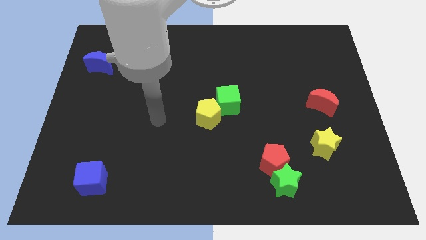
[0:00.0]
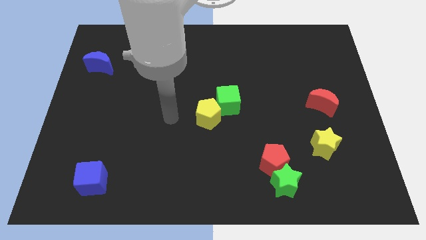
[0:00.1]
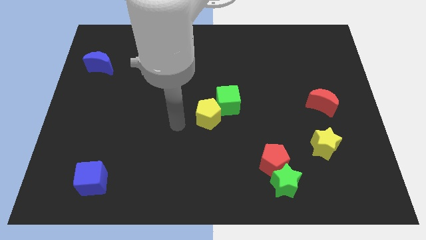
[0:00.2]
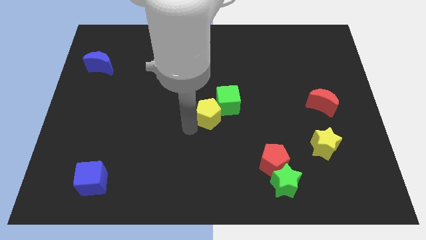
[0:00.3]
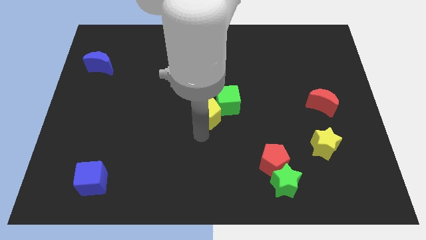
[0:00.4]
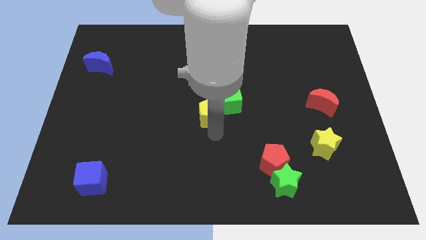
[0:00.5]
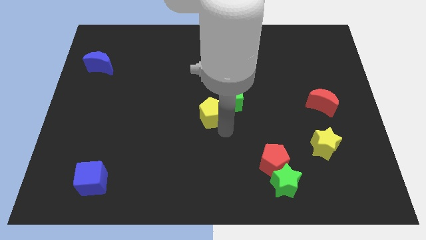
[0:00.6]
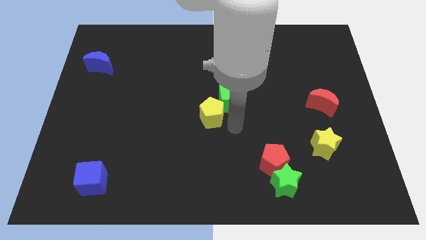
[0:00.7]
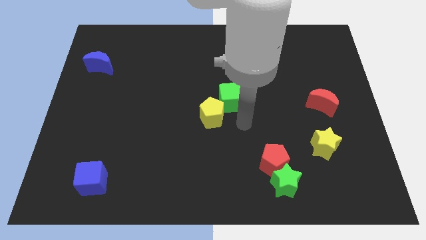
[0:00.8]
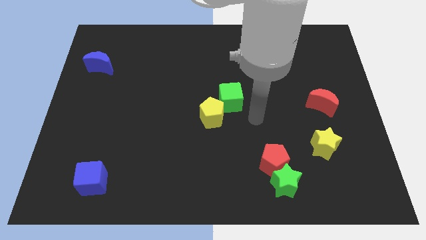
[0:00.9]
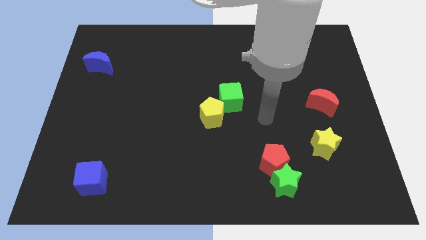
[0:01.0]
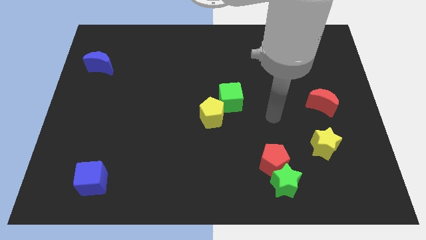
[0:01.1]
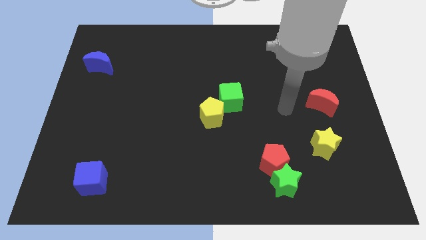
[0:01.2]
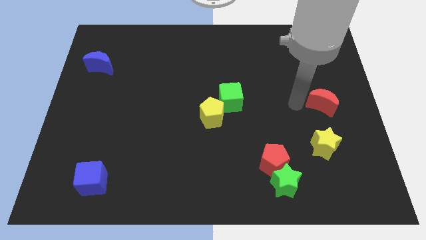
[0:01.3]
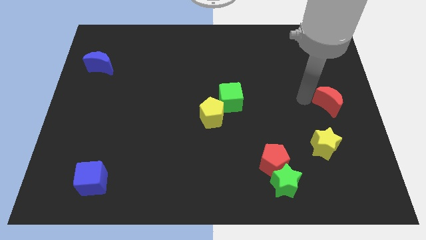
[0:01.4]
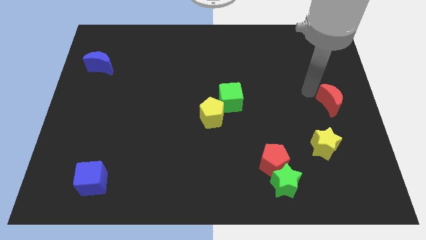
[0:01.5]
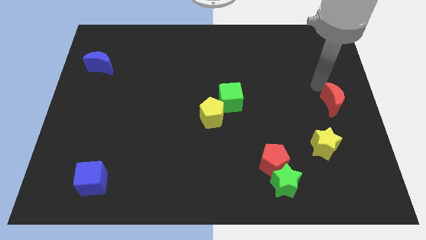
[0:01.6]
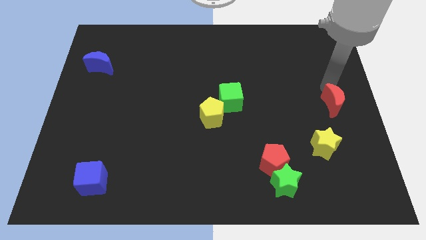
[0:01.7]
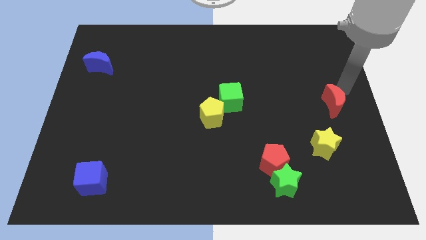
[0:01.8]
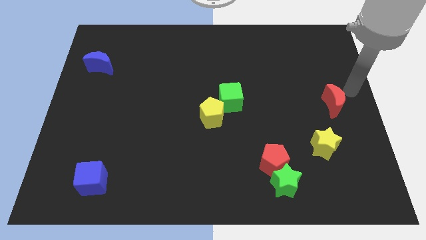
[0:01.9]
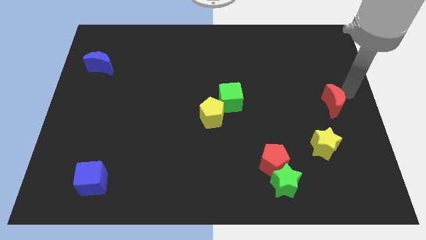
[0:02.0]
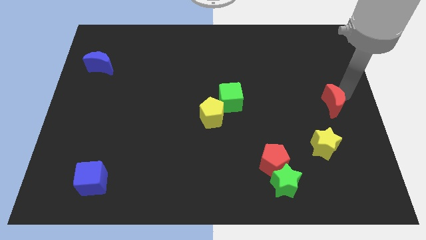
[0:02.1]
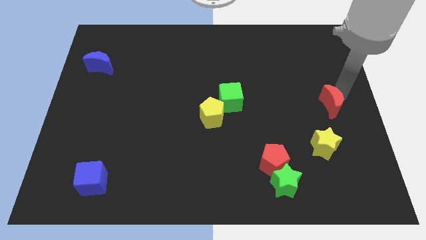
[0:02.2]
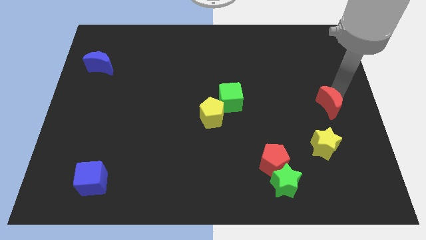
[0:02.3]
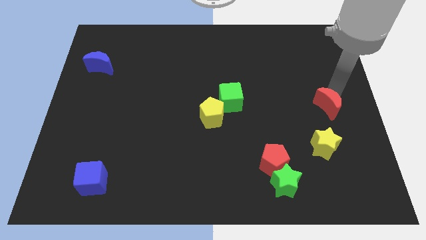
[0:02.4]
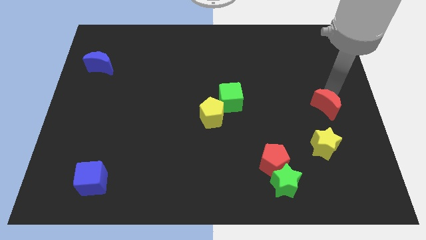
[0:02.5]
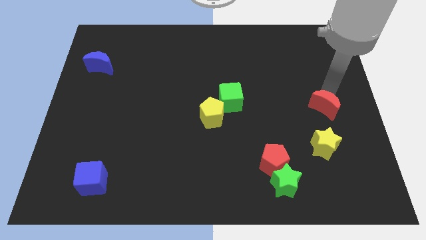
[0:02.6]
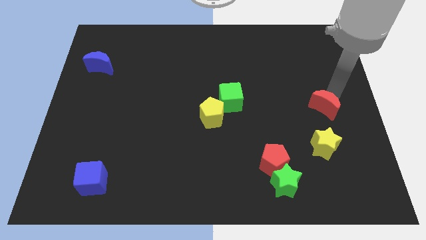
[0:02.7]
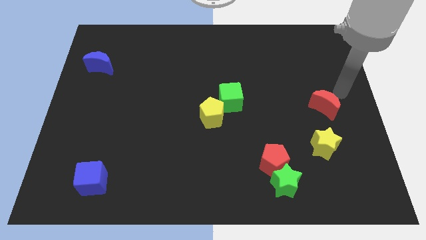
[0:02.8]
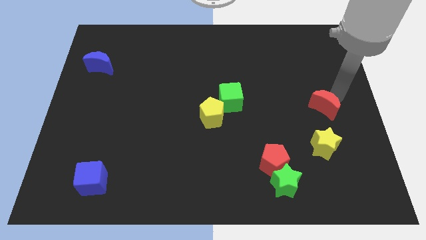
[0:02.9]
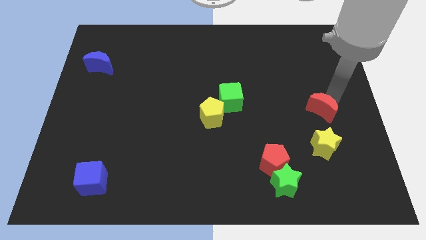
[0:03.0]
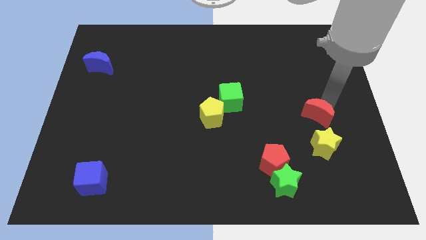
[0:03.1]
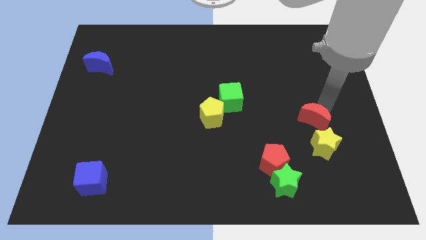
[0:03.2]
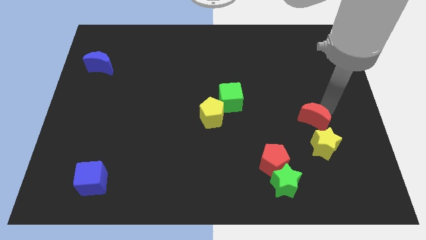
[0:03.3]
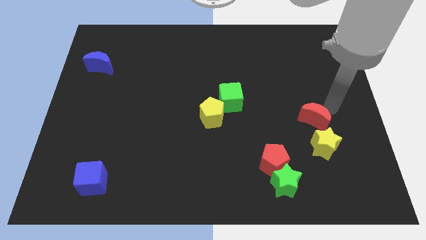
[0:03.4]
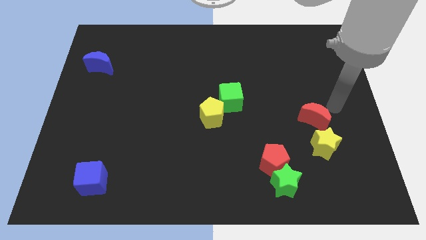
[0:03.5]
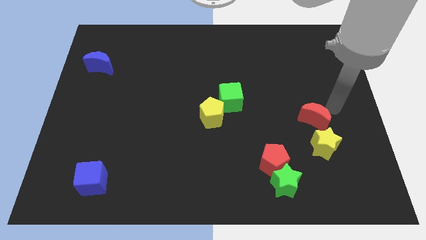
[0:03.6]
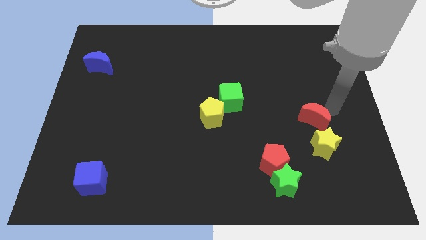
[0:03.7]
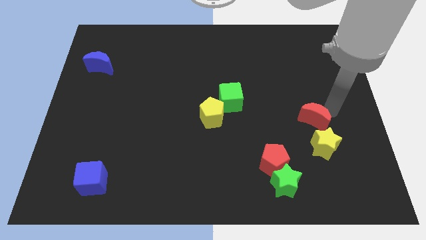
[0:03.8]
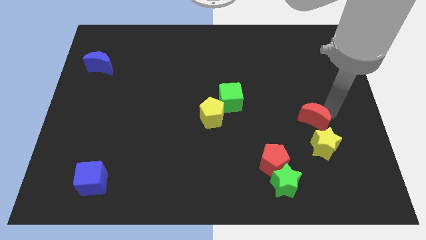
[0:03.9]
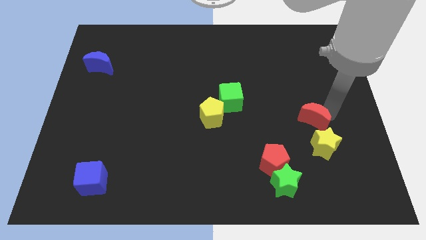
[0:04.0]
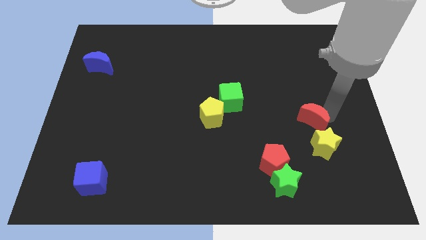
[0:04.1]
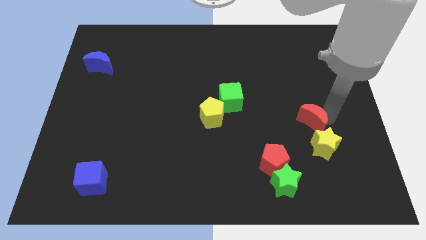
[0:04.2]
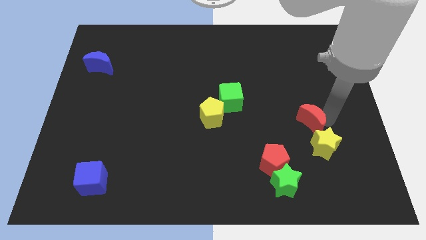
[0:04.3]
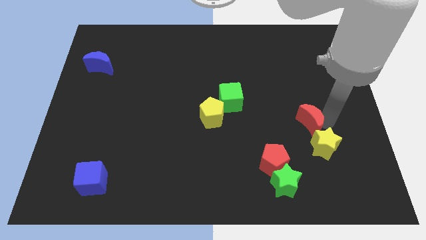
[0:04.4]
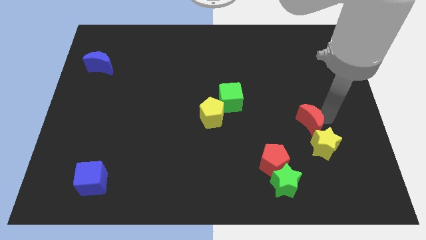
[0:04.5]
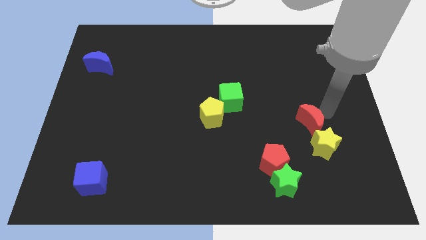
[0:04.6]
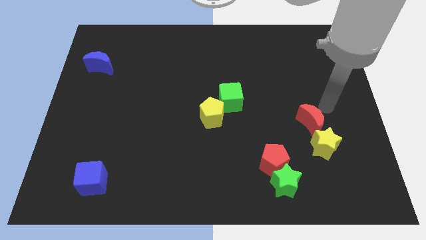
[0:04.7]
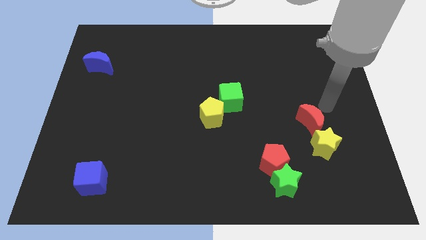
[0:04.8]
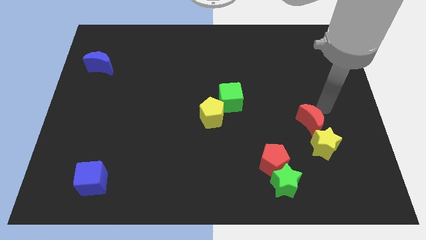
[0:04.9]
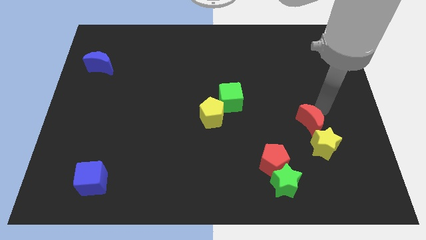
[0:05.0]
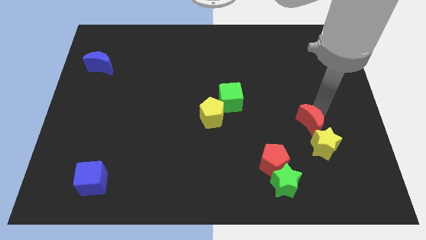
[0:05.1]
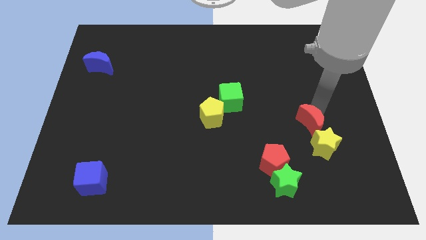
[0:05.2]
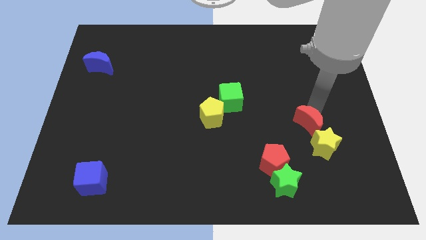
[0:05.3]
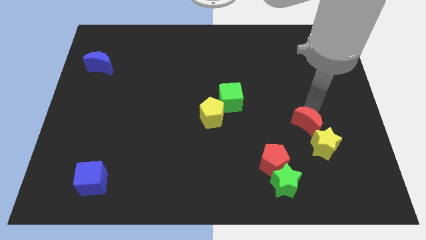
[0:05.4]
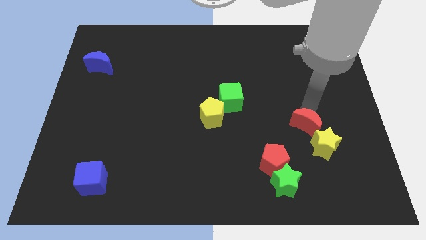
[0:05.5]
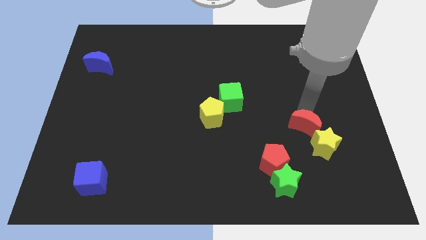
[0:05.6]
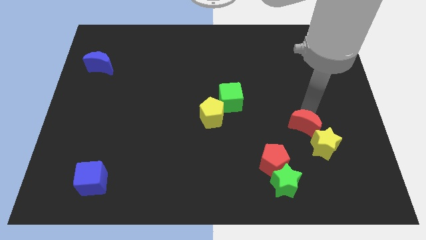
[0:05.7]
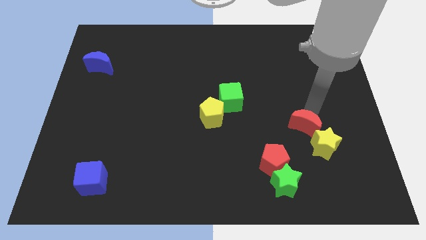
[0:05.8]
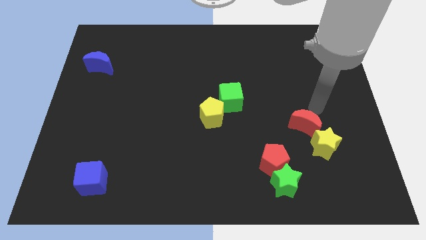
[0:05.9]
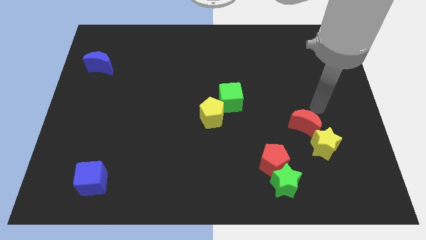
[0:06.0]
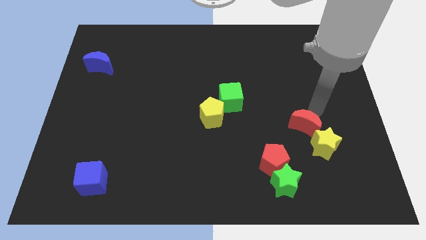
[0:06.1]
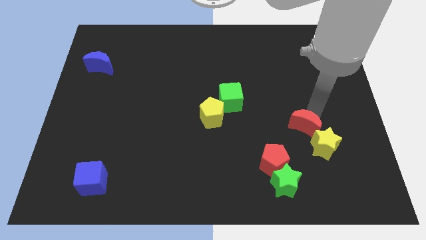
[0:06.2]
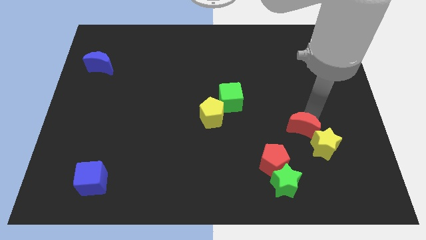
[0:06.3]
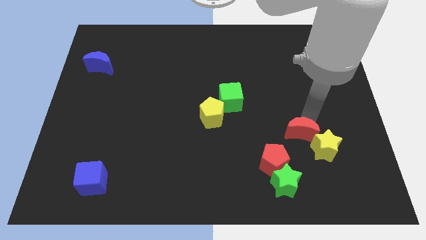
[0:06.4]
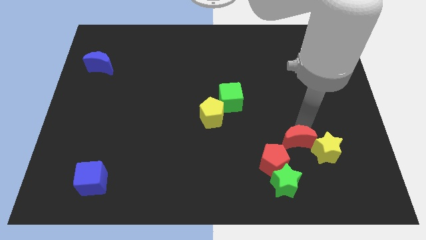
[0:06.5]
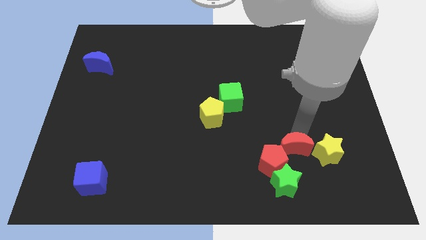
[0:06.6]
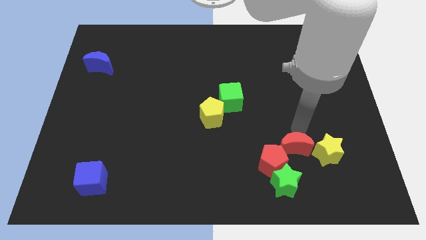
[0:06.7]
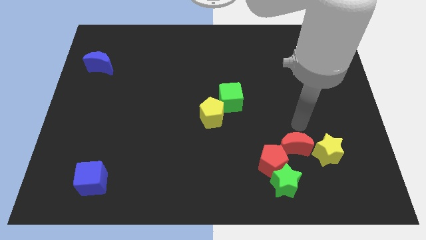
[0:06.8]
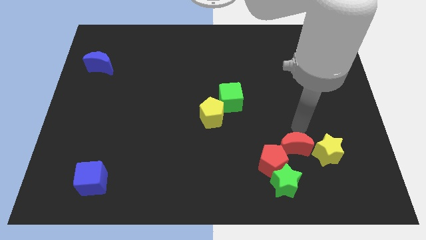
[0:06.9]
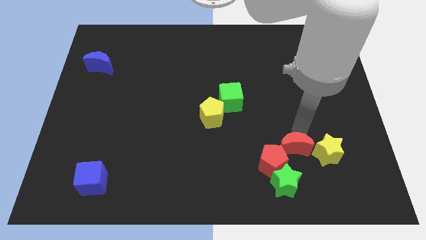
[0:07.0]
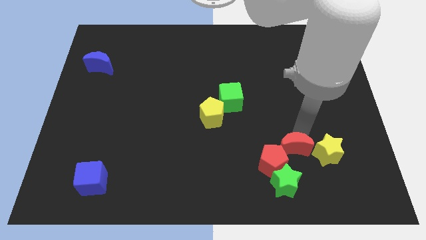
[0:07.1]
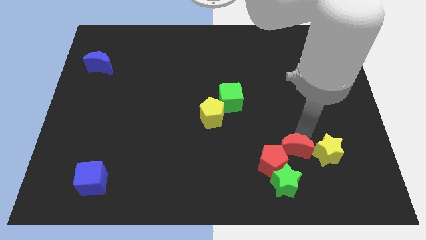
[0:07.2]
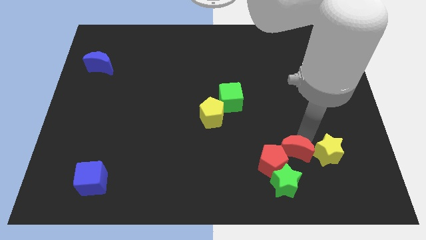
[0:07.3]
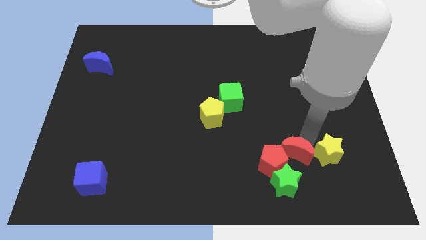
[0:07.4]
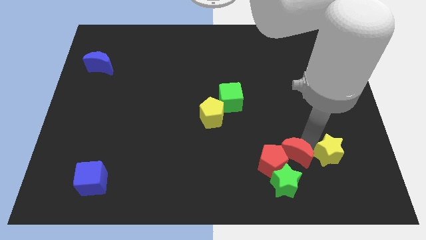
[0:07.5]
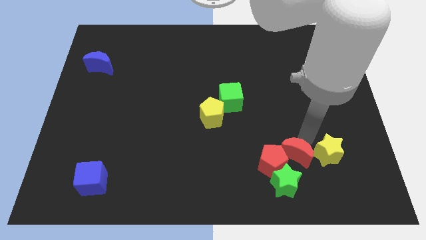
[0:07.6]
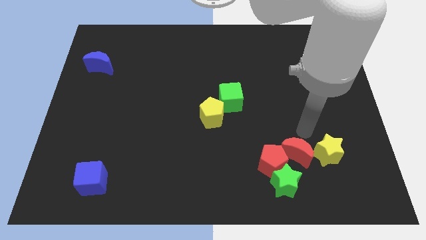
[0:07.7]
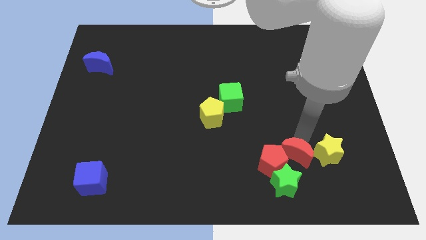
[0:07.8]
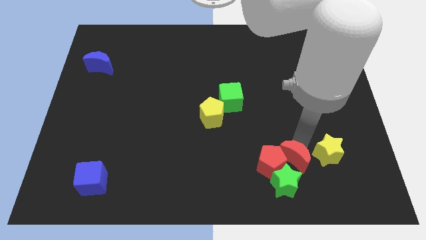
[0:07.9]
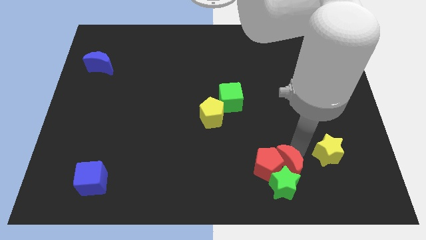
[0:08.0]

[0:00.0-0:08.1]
slide the red moon close to the green star
